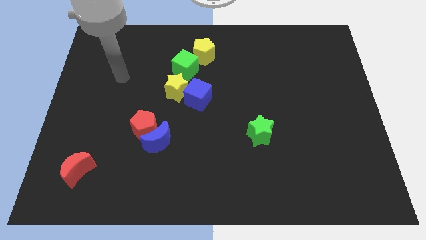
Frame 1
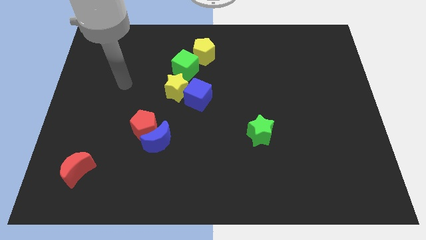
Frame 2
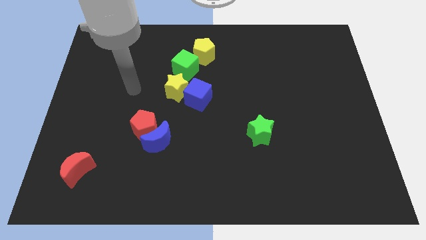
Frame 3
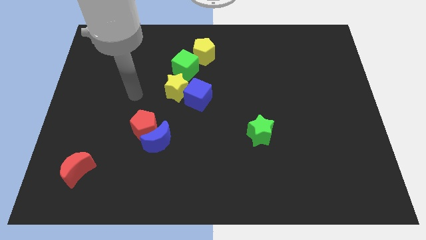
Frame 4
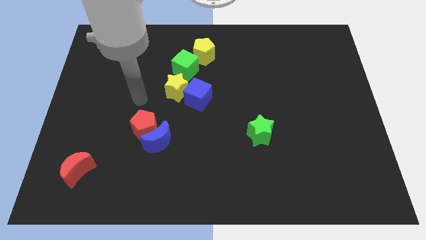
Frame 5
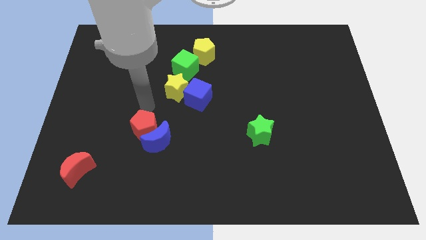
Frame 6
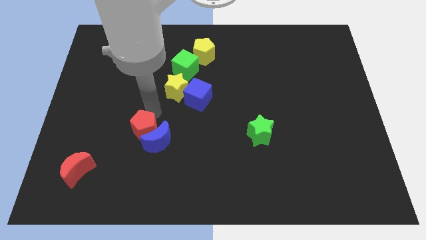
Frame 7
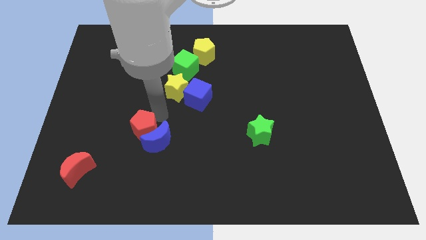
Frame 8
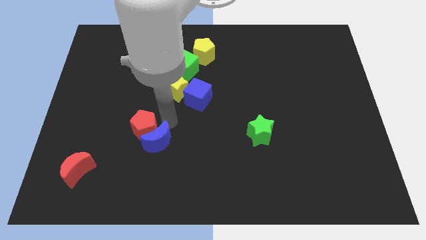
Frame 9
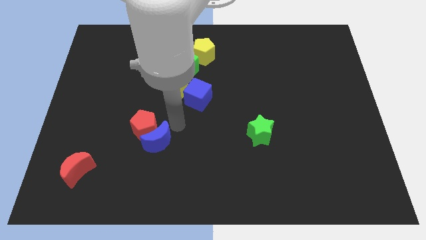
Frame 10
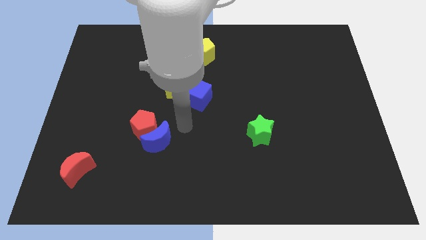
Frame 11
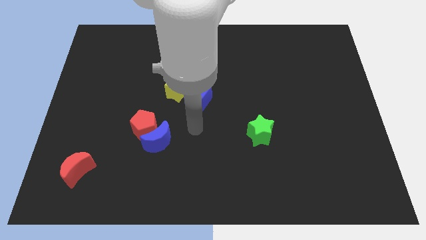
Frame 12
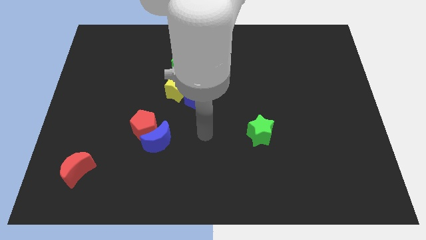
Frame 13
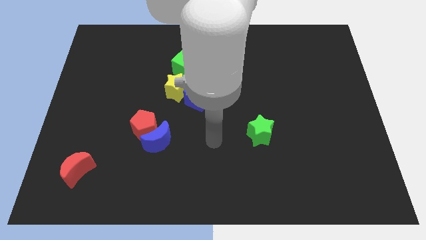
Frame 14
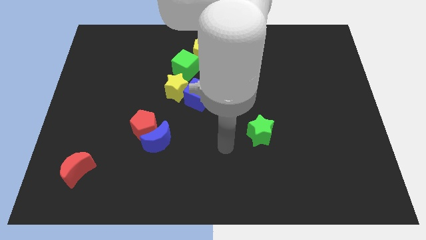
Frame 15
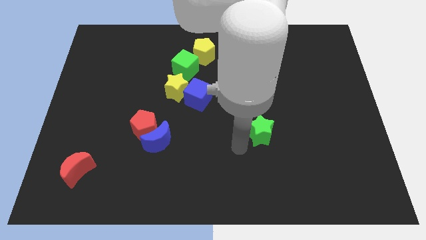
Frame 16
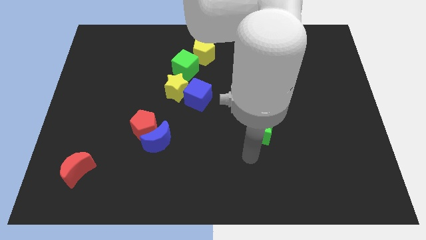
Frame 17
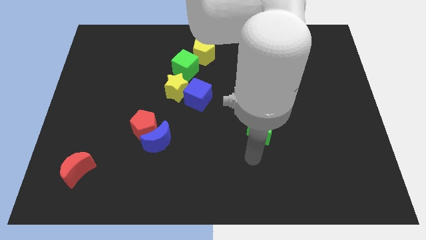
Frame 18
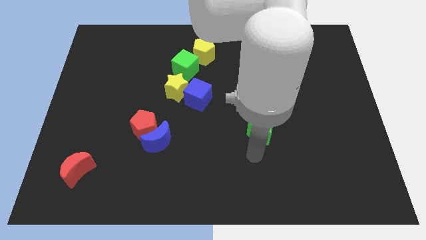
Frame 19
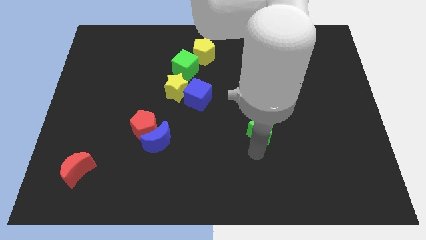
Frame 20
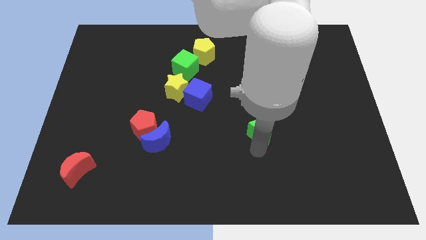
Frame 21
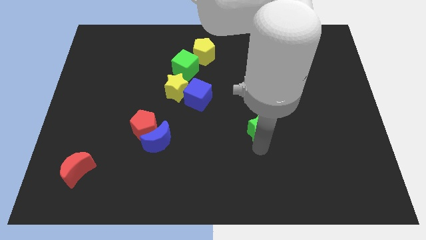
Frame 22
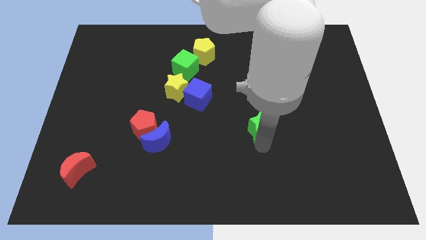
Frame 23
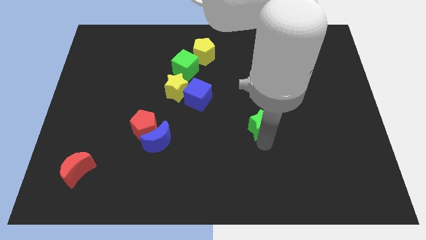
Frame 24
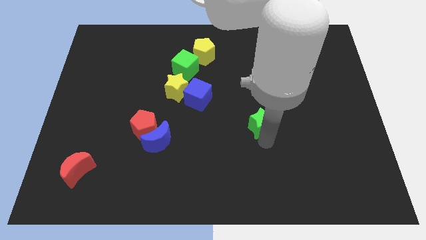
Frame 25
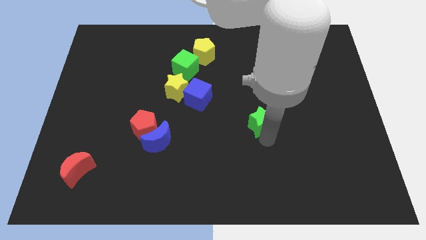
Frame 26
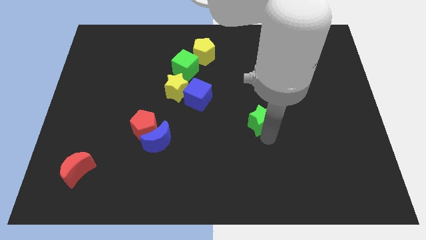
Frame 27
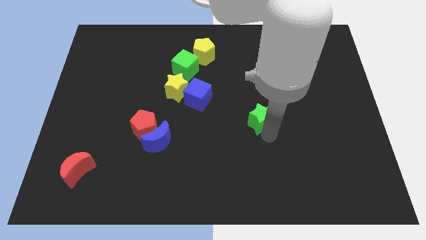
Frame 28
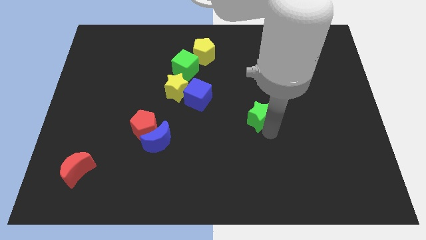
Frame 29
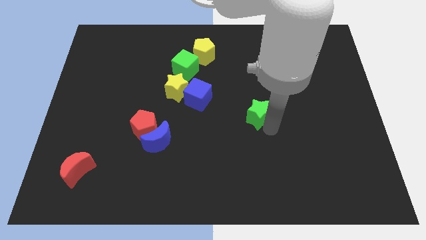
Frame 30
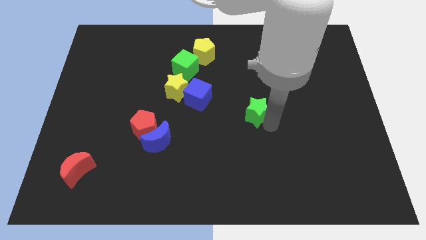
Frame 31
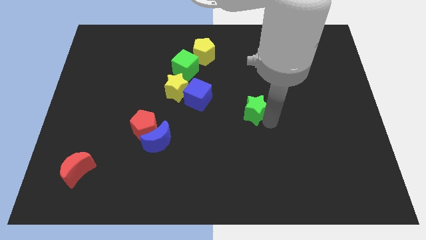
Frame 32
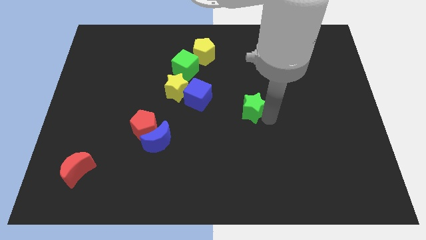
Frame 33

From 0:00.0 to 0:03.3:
push the green star upwards a little bit

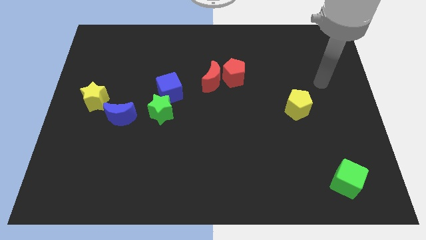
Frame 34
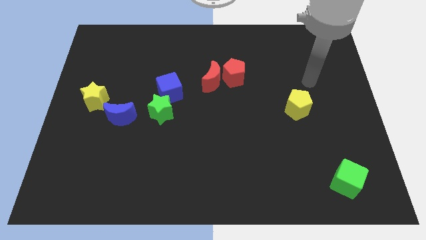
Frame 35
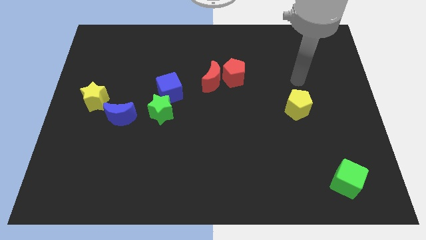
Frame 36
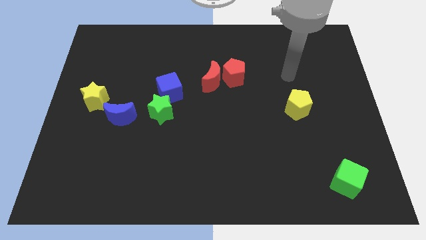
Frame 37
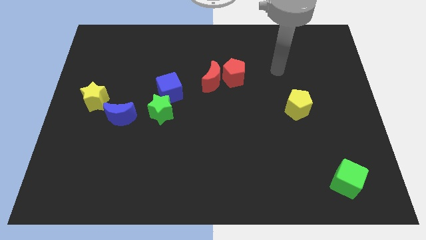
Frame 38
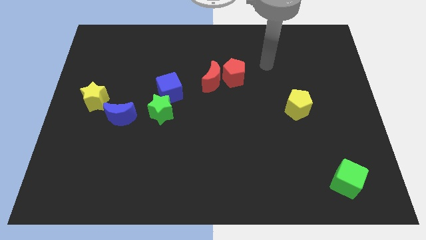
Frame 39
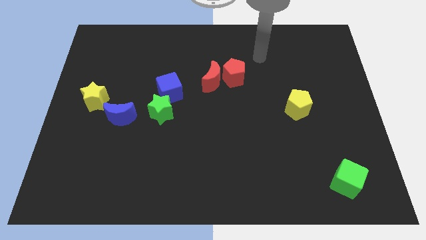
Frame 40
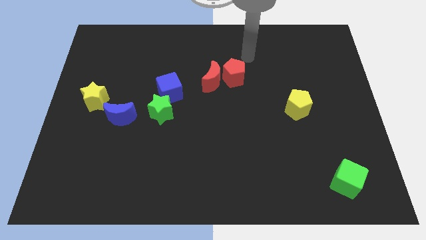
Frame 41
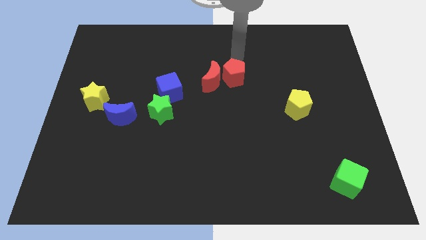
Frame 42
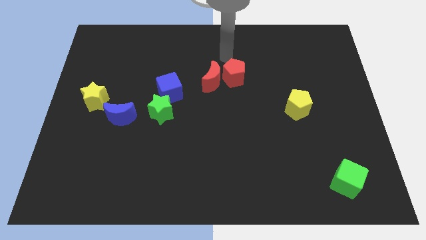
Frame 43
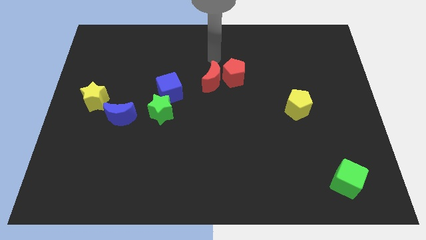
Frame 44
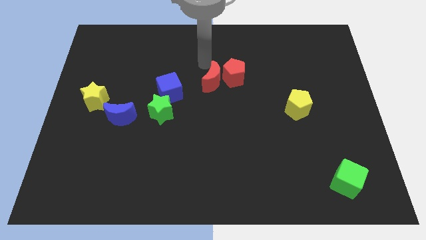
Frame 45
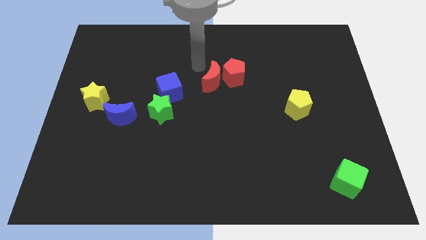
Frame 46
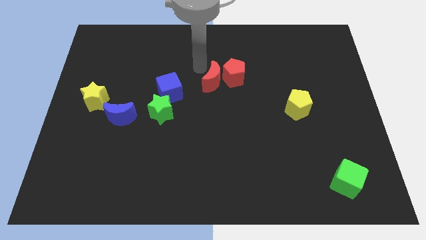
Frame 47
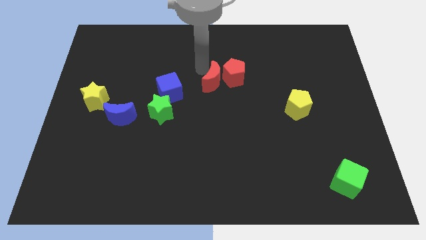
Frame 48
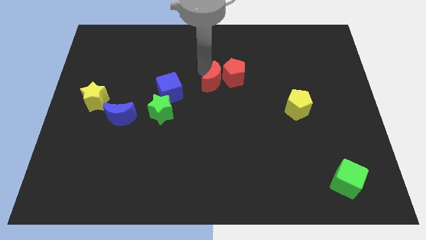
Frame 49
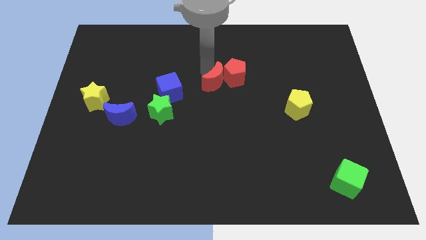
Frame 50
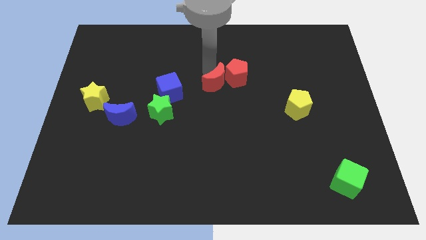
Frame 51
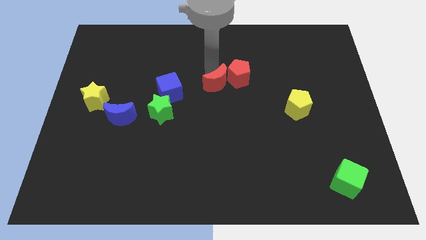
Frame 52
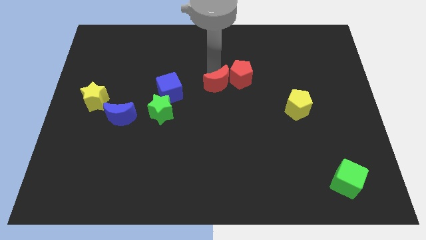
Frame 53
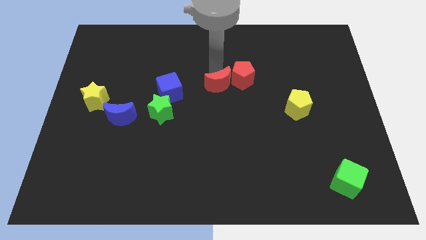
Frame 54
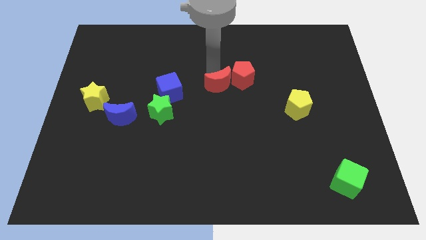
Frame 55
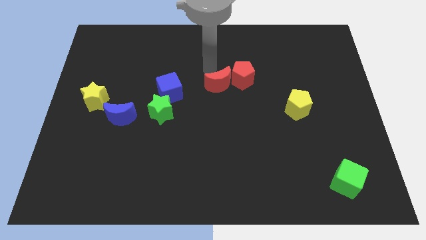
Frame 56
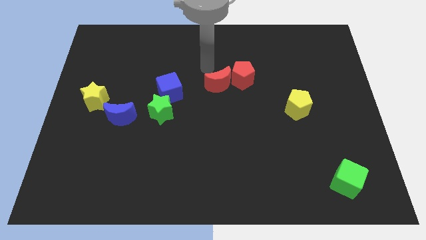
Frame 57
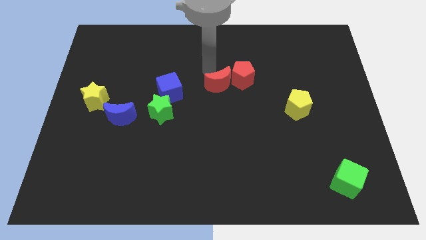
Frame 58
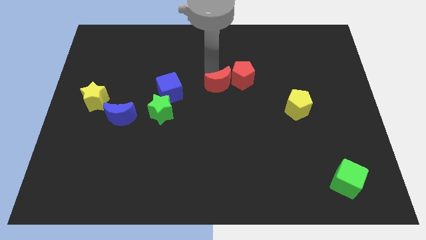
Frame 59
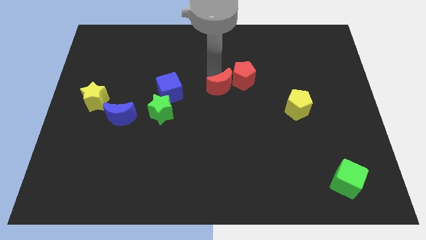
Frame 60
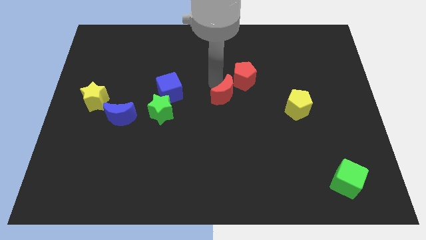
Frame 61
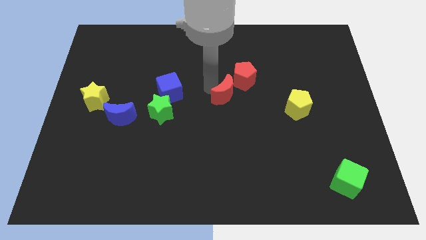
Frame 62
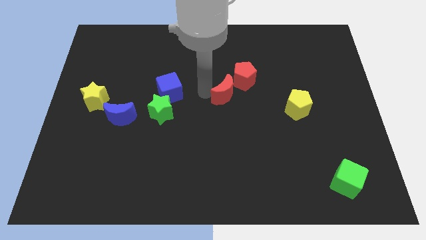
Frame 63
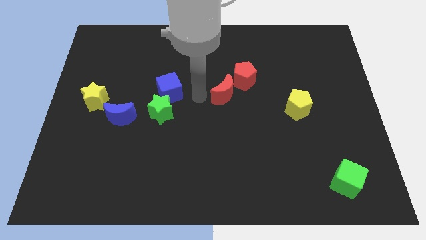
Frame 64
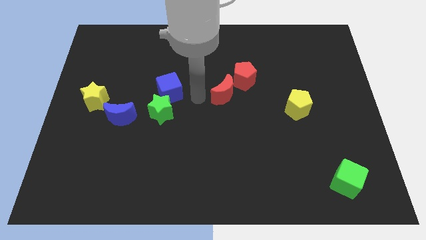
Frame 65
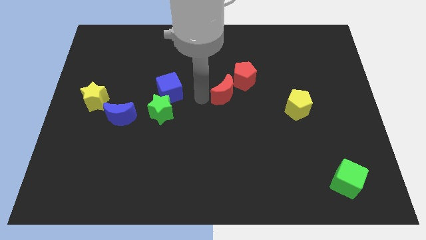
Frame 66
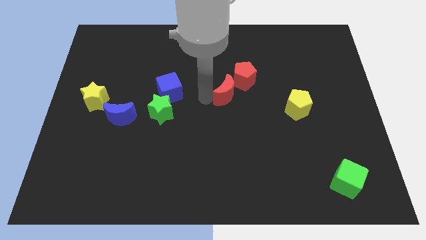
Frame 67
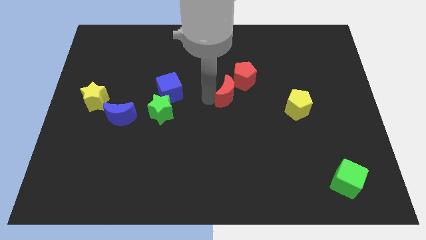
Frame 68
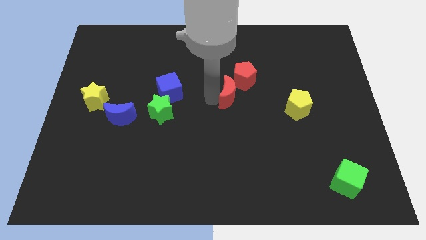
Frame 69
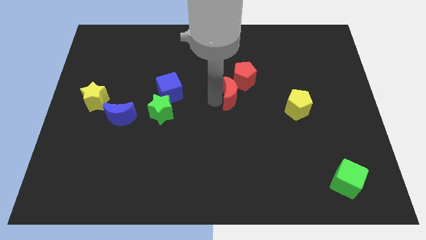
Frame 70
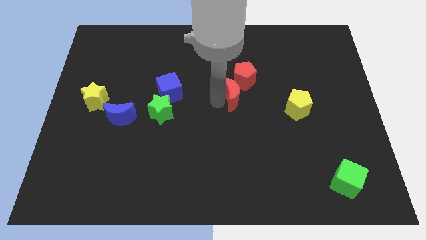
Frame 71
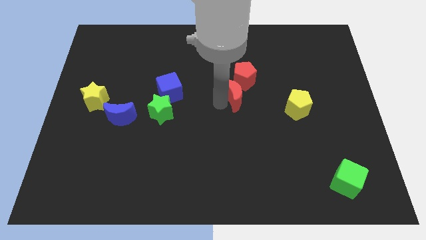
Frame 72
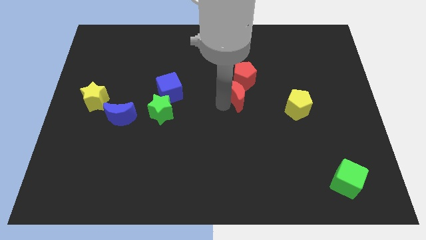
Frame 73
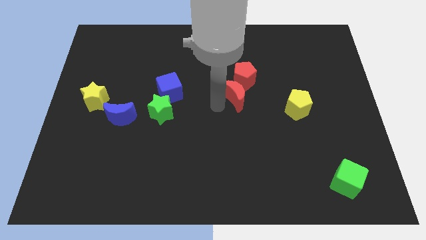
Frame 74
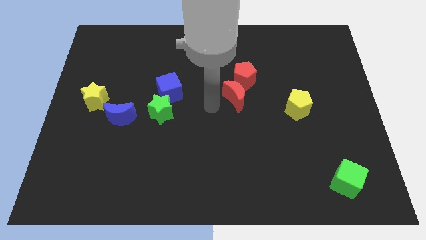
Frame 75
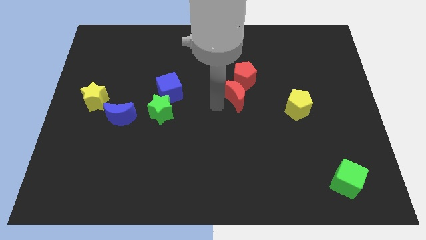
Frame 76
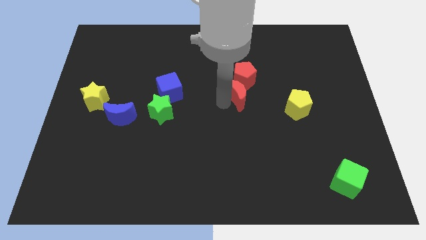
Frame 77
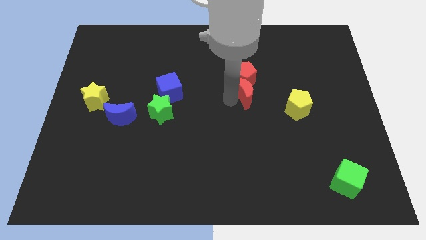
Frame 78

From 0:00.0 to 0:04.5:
push the red moon a little bit right

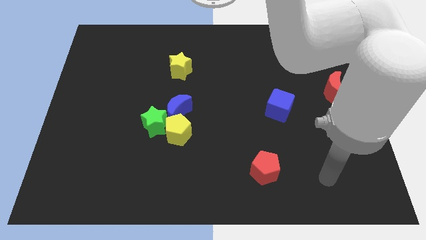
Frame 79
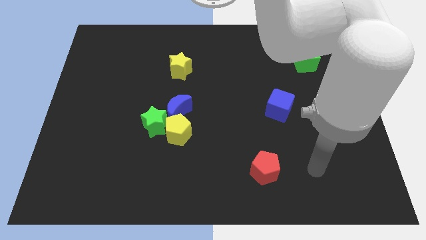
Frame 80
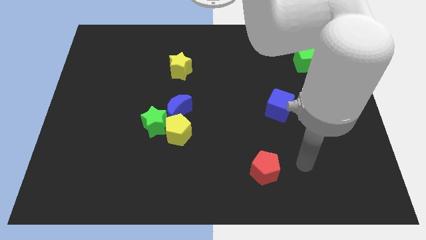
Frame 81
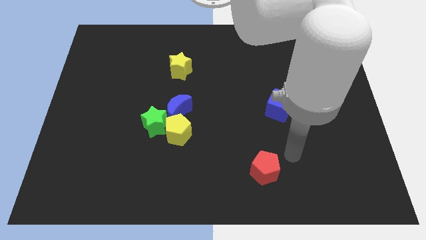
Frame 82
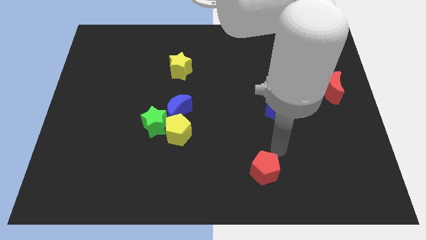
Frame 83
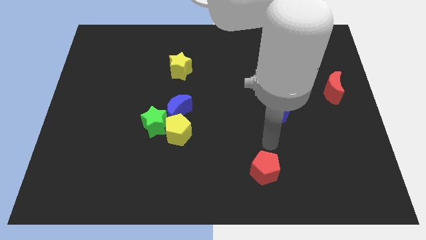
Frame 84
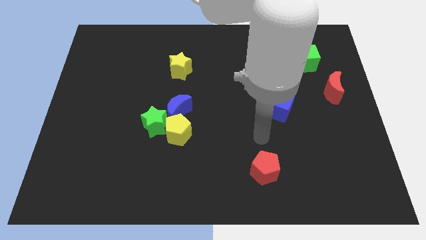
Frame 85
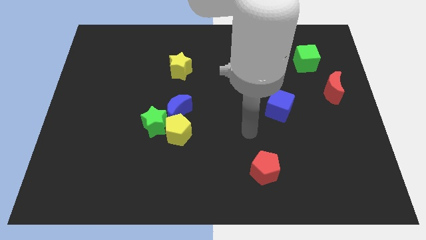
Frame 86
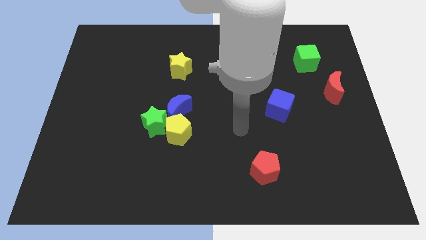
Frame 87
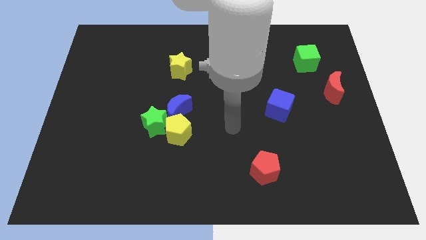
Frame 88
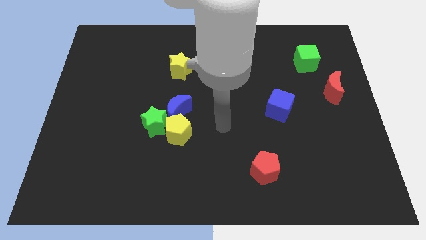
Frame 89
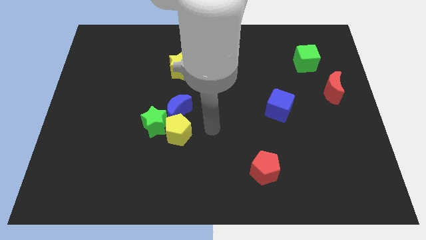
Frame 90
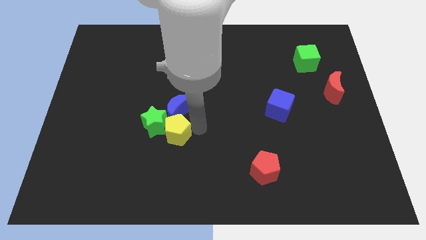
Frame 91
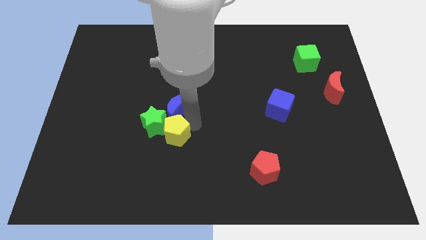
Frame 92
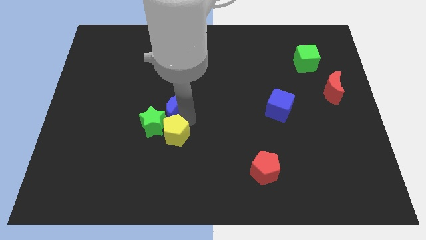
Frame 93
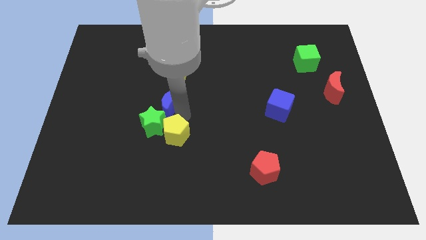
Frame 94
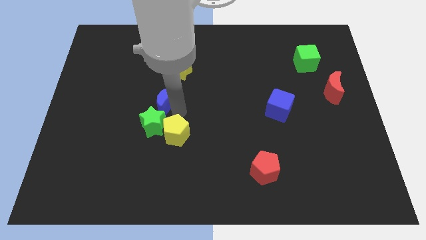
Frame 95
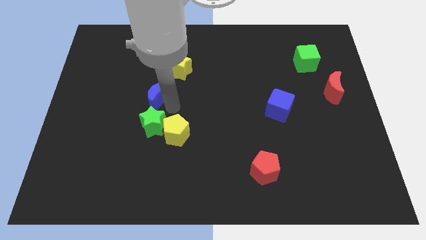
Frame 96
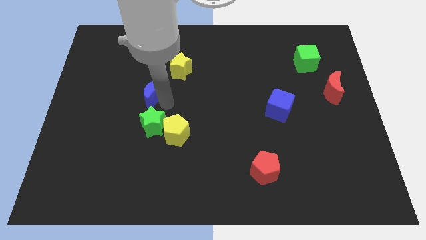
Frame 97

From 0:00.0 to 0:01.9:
slide the blue moon upwards and left diagonally a little
